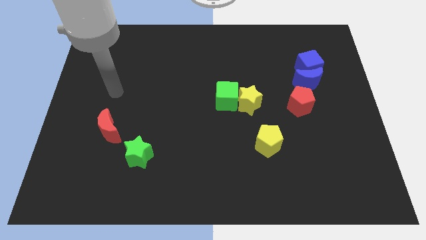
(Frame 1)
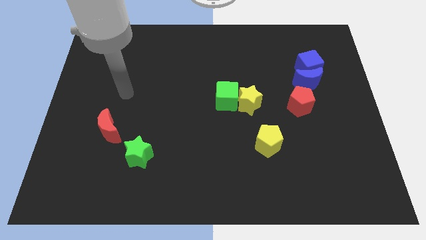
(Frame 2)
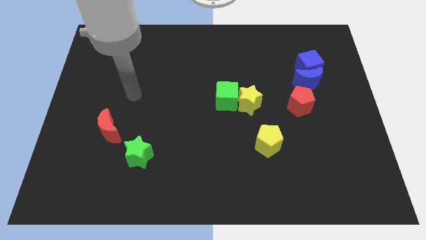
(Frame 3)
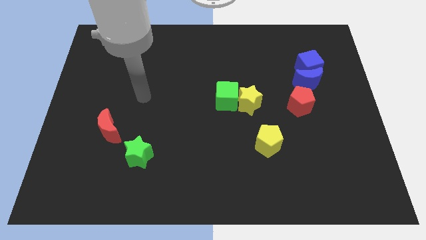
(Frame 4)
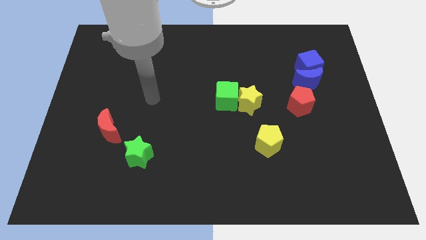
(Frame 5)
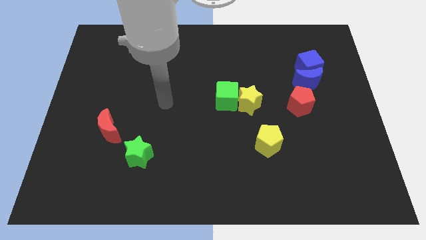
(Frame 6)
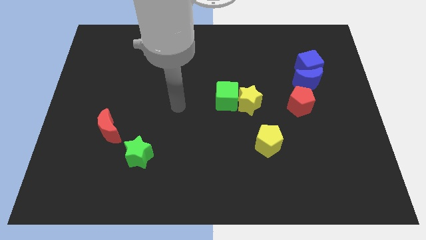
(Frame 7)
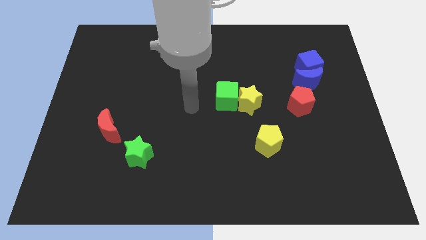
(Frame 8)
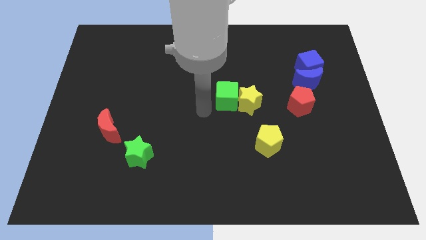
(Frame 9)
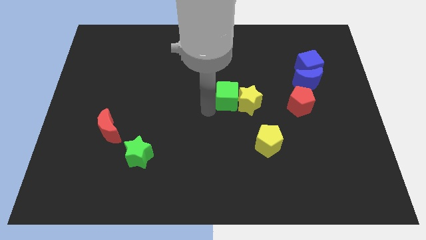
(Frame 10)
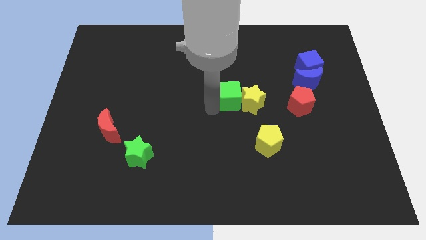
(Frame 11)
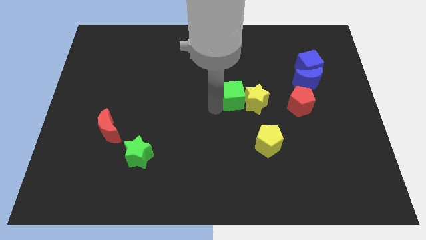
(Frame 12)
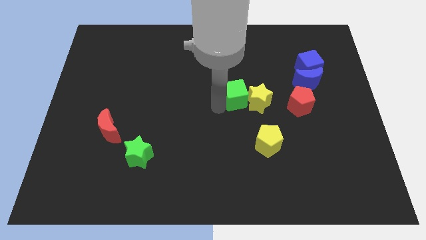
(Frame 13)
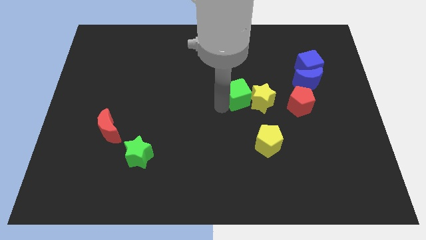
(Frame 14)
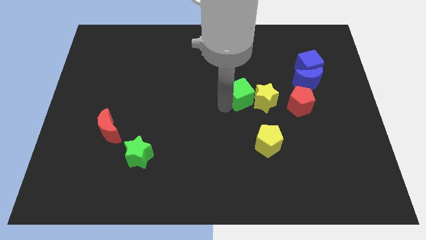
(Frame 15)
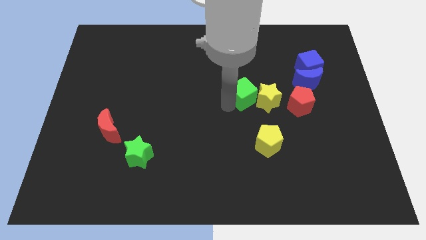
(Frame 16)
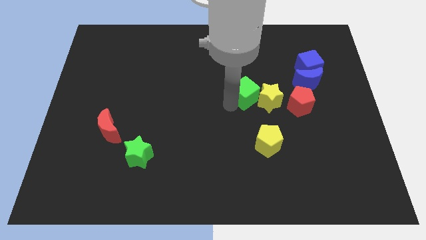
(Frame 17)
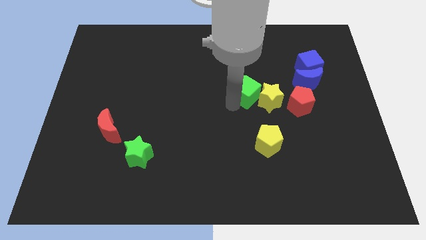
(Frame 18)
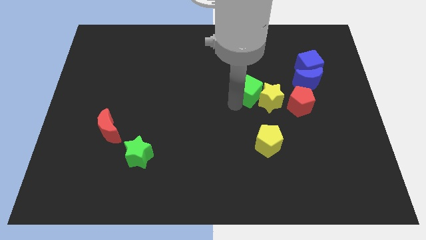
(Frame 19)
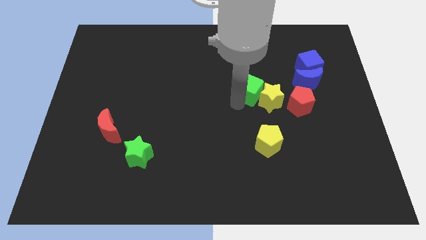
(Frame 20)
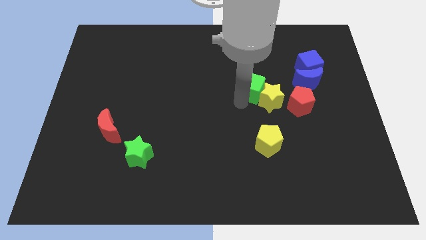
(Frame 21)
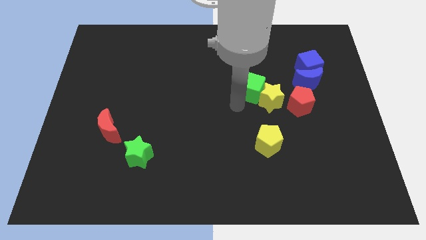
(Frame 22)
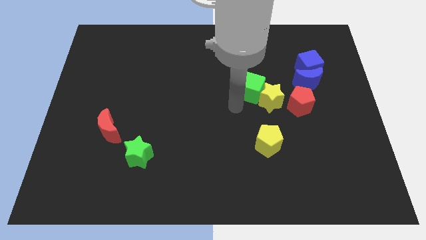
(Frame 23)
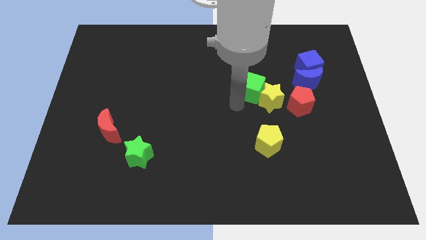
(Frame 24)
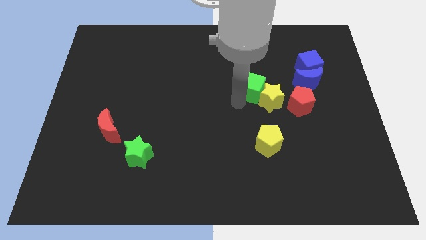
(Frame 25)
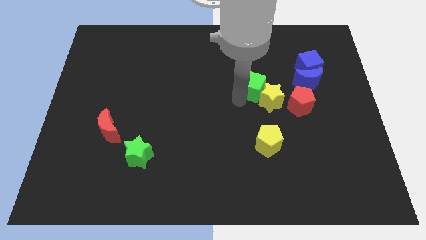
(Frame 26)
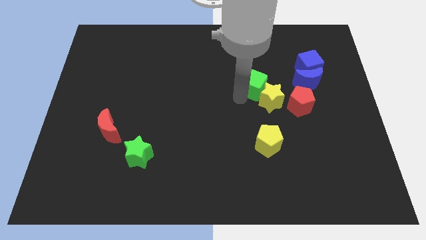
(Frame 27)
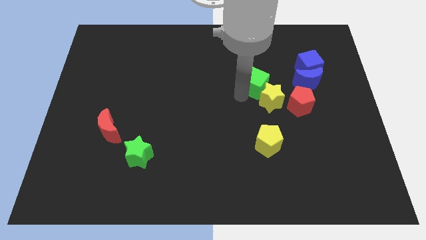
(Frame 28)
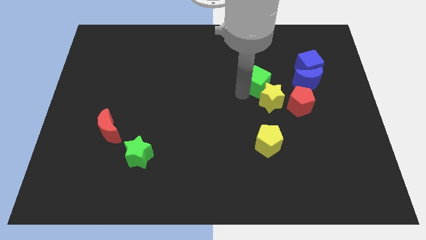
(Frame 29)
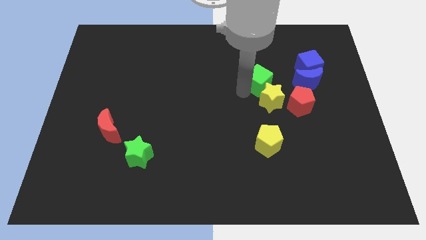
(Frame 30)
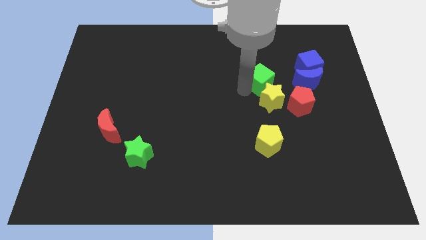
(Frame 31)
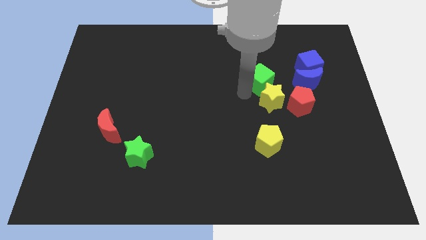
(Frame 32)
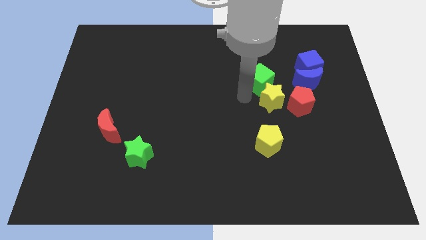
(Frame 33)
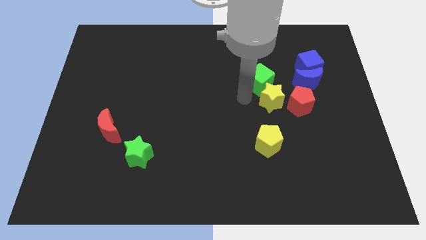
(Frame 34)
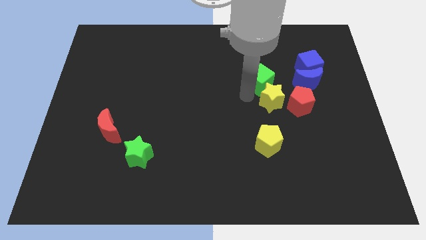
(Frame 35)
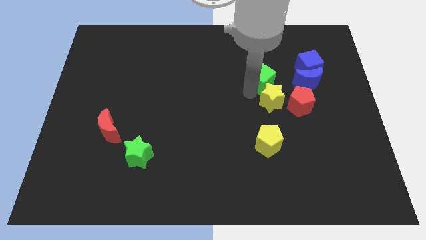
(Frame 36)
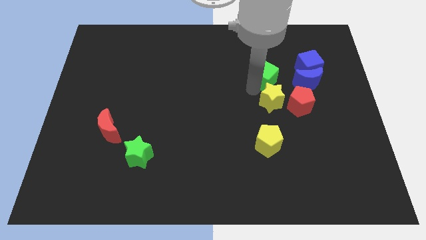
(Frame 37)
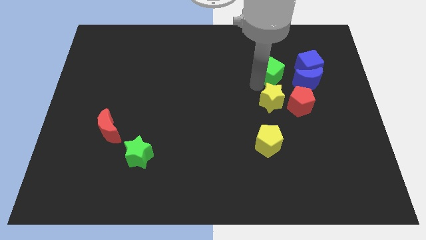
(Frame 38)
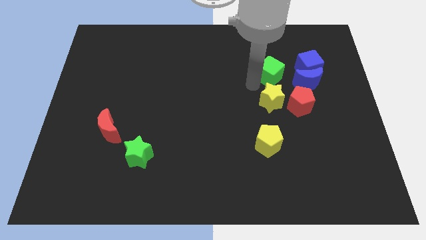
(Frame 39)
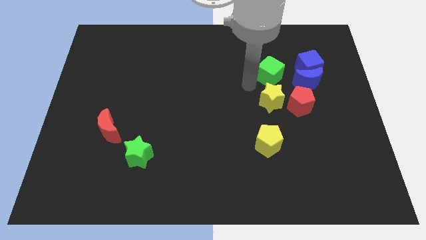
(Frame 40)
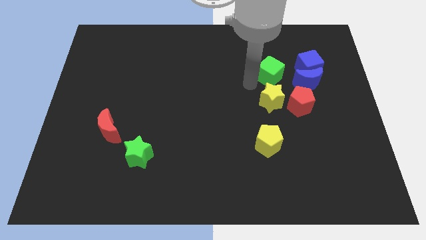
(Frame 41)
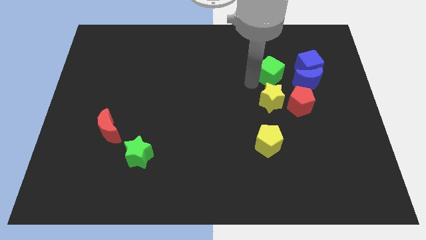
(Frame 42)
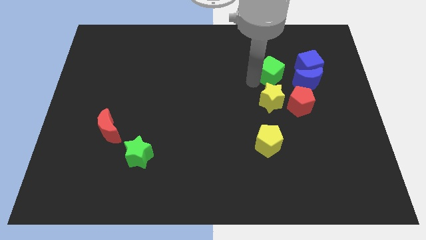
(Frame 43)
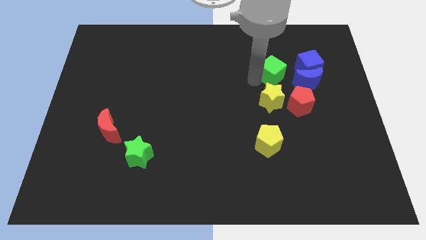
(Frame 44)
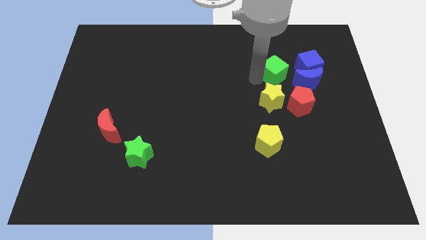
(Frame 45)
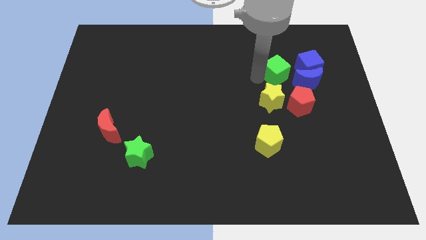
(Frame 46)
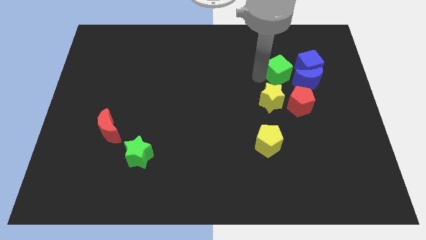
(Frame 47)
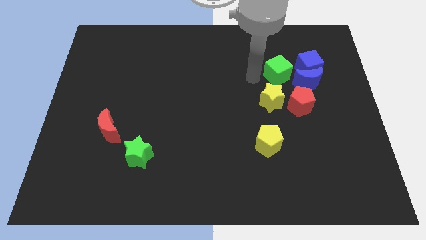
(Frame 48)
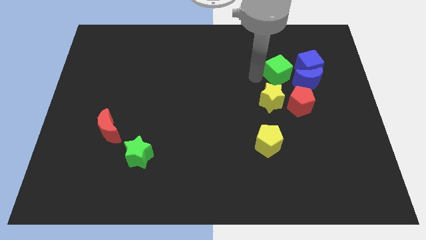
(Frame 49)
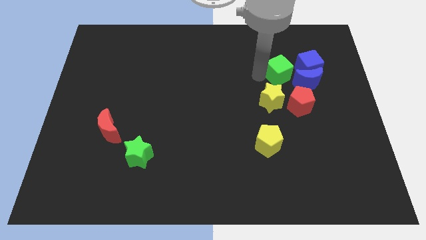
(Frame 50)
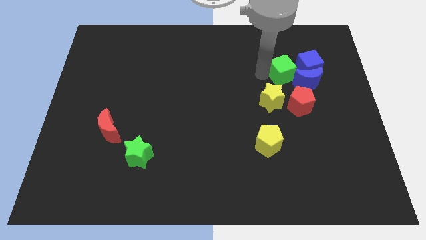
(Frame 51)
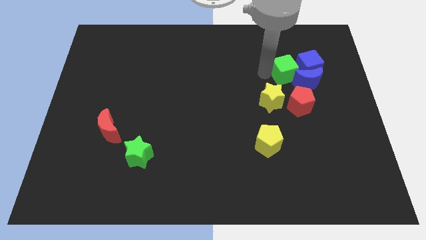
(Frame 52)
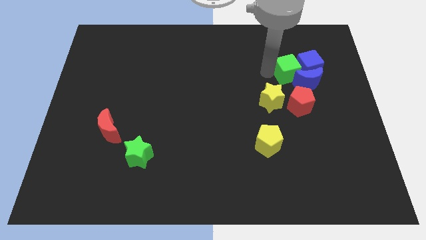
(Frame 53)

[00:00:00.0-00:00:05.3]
push the green cube next to the blue cube

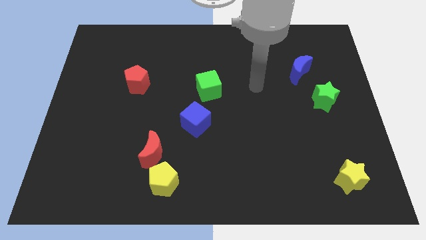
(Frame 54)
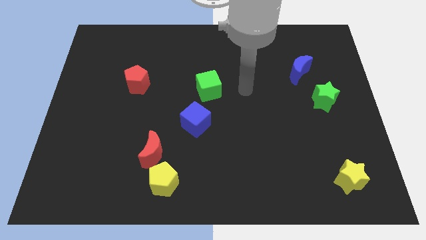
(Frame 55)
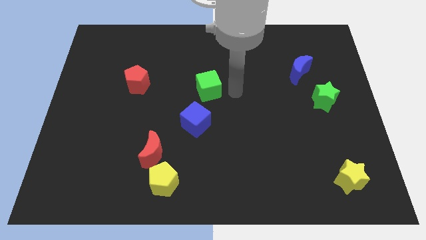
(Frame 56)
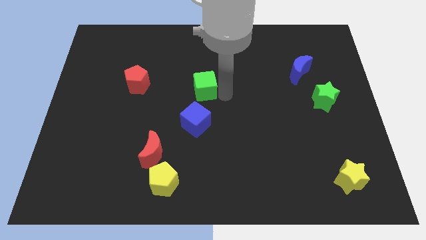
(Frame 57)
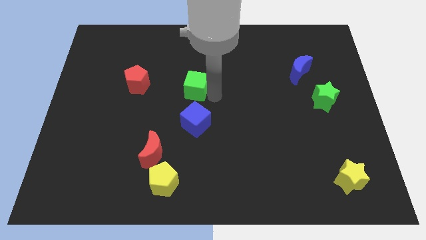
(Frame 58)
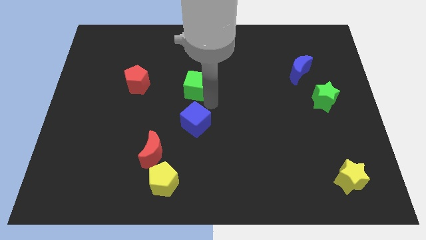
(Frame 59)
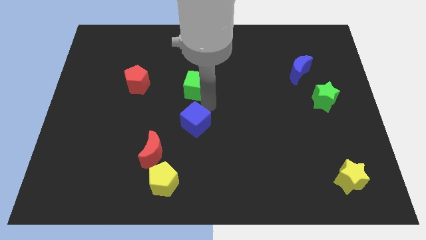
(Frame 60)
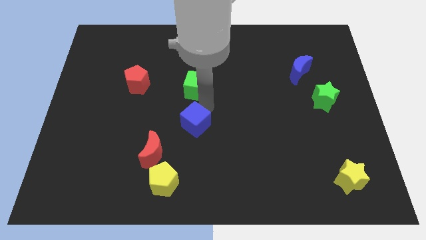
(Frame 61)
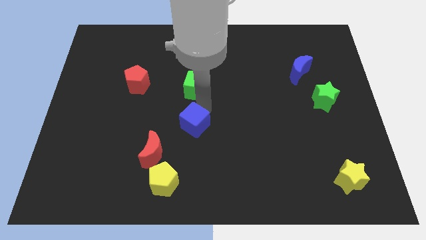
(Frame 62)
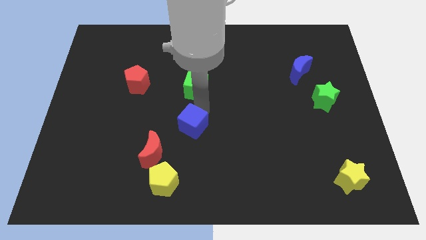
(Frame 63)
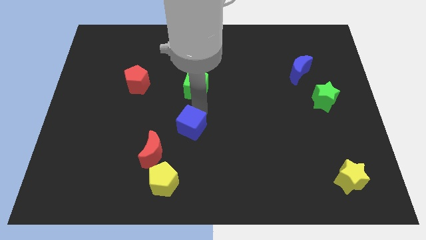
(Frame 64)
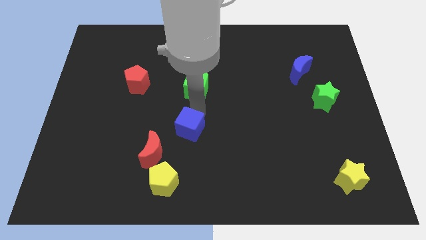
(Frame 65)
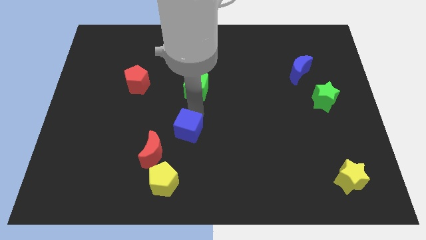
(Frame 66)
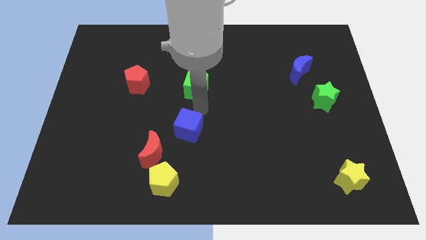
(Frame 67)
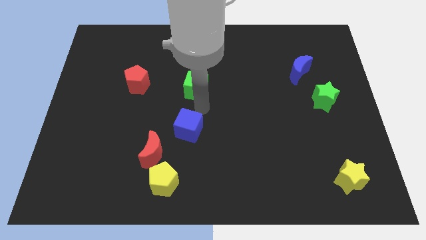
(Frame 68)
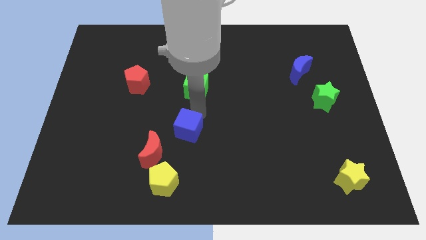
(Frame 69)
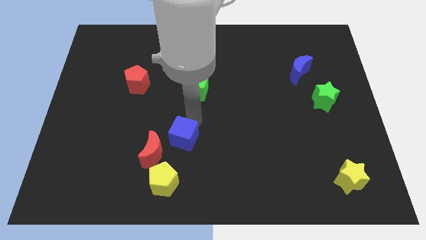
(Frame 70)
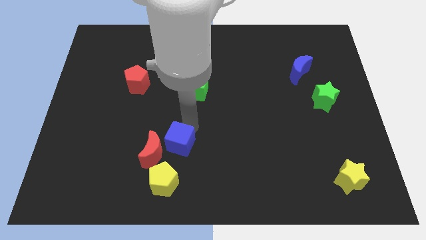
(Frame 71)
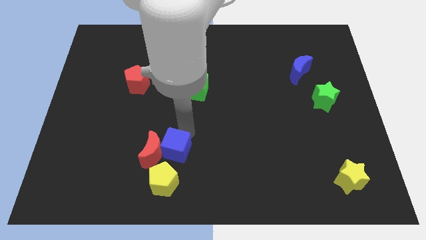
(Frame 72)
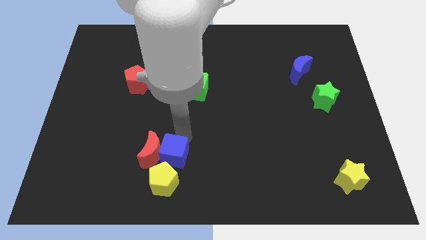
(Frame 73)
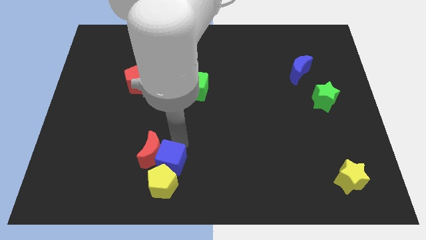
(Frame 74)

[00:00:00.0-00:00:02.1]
push the blue cube towards the yellow pentagon

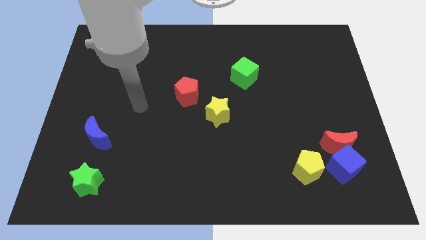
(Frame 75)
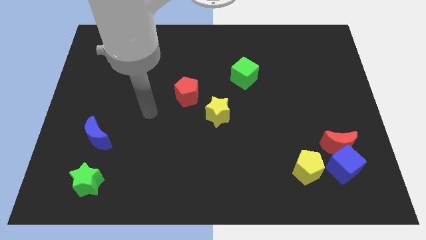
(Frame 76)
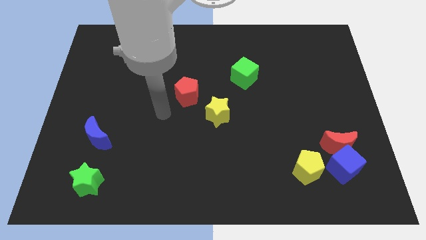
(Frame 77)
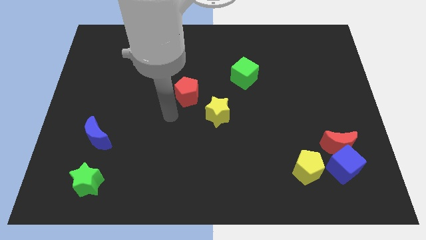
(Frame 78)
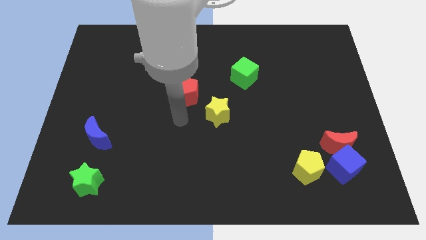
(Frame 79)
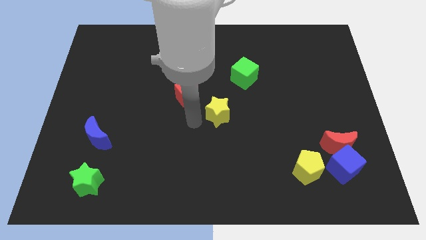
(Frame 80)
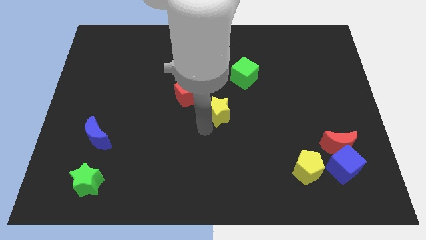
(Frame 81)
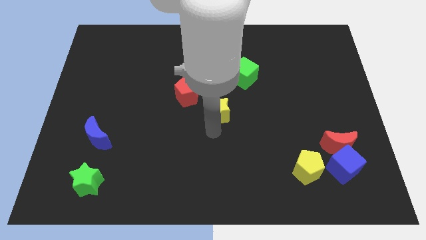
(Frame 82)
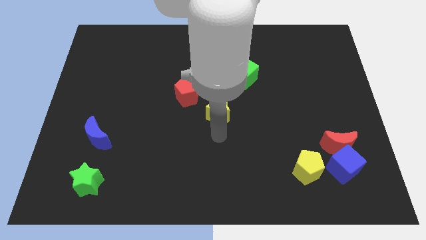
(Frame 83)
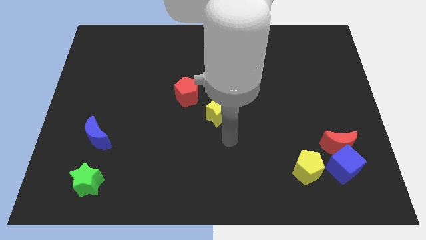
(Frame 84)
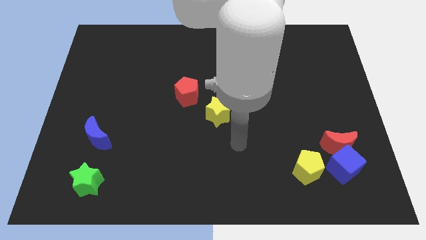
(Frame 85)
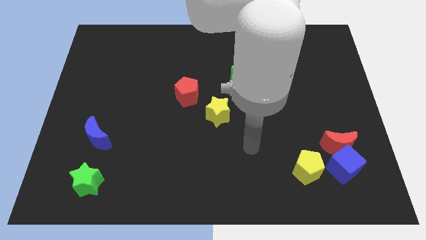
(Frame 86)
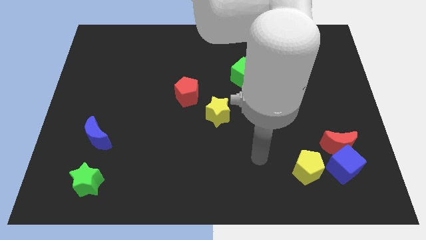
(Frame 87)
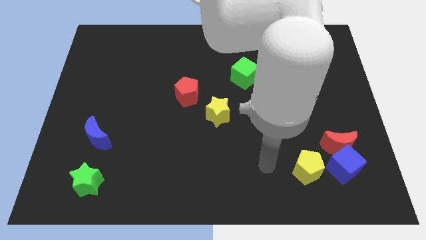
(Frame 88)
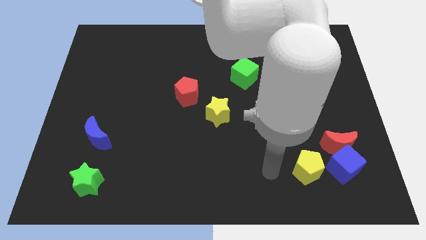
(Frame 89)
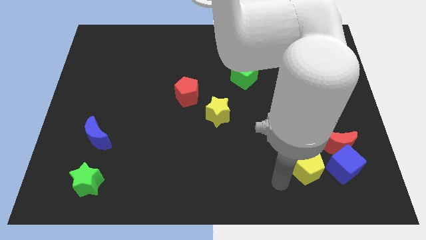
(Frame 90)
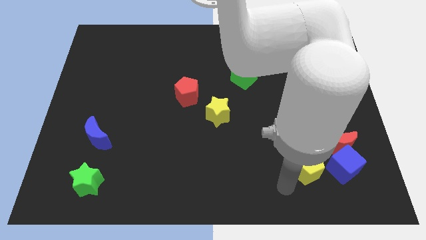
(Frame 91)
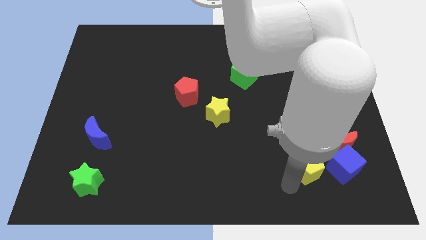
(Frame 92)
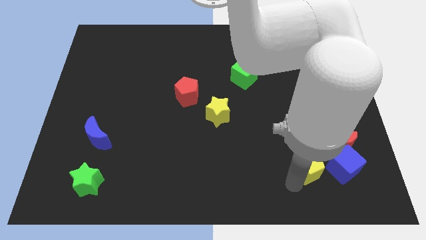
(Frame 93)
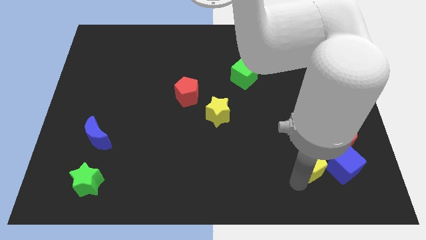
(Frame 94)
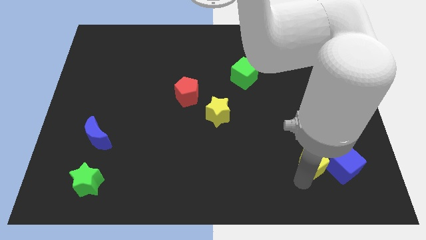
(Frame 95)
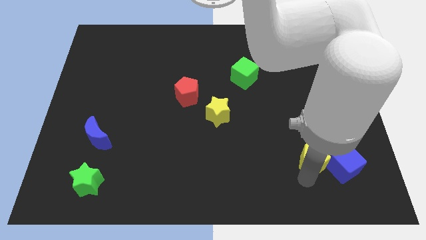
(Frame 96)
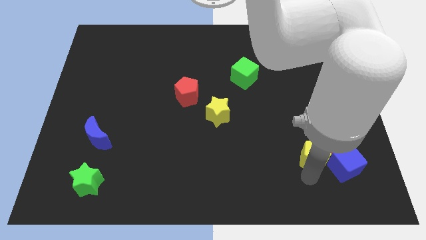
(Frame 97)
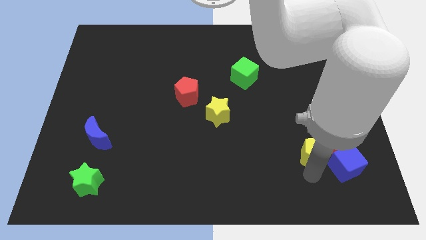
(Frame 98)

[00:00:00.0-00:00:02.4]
push the yellow pentagon to the red moon
